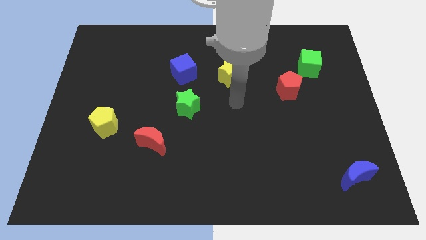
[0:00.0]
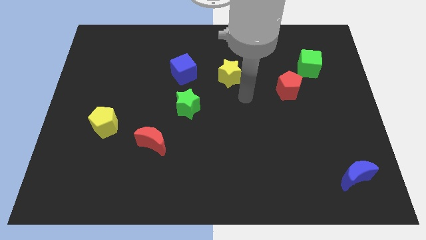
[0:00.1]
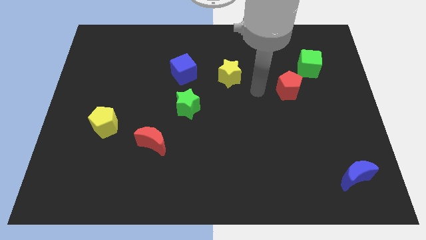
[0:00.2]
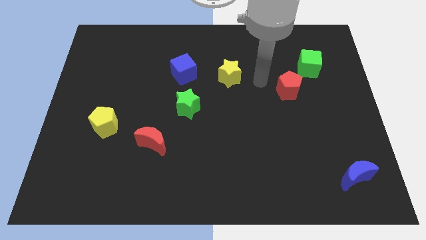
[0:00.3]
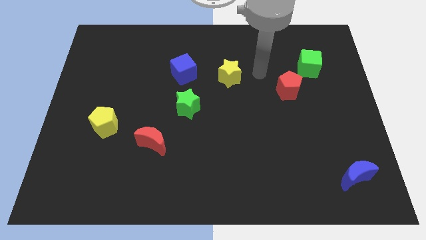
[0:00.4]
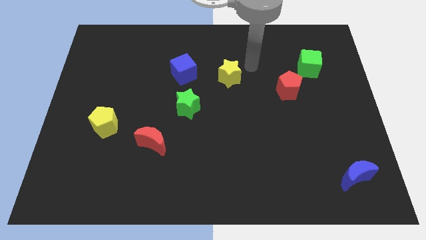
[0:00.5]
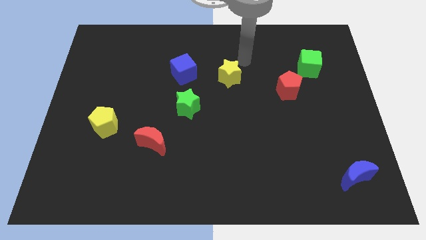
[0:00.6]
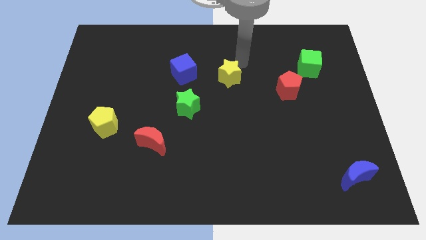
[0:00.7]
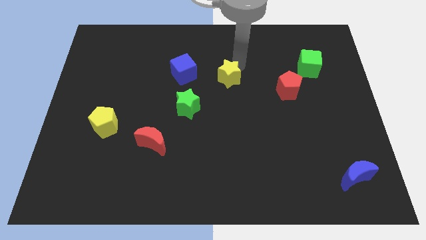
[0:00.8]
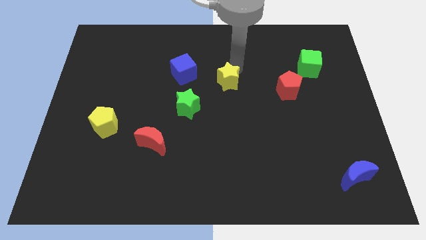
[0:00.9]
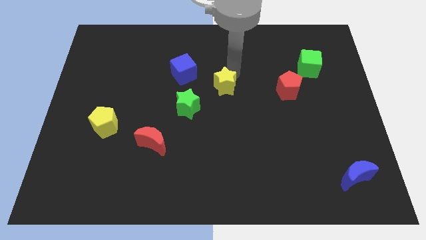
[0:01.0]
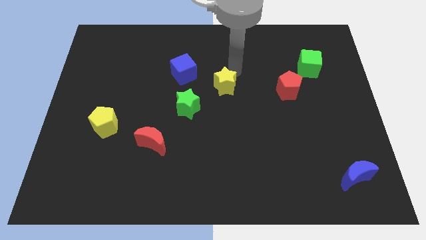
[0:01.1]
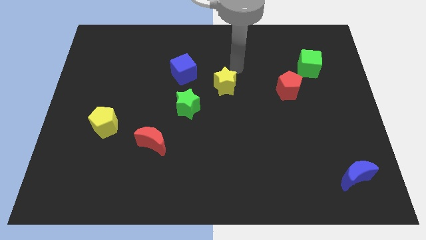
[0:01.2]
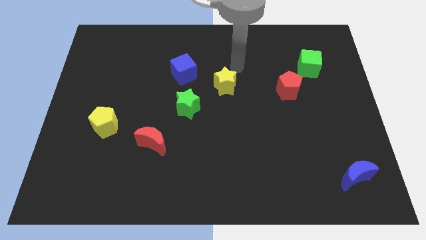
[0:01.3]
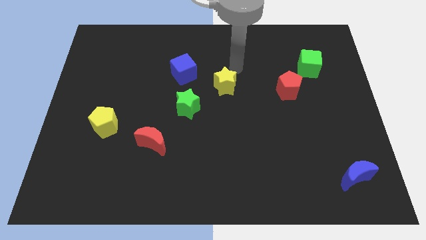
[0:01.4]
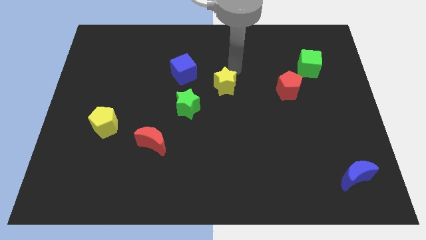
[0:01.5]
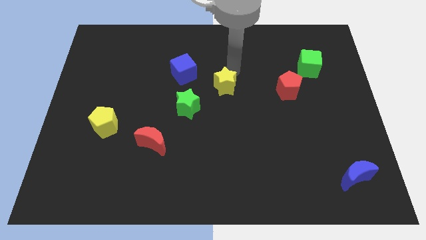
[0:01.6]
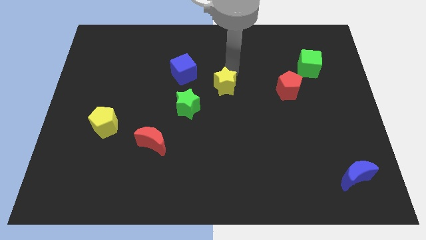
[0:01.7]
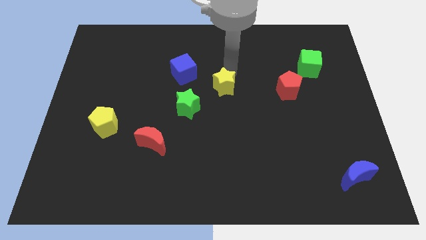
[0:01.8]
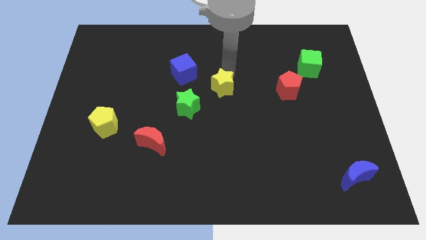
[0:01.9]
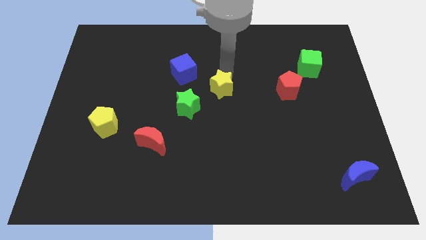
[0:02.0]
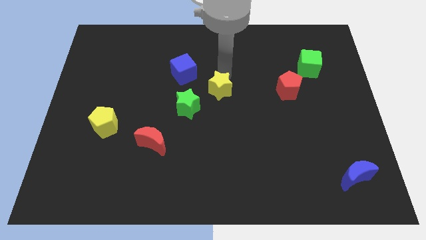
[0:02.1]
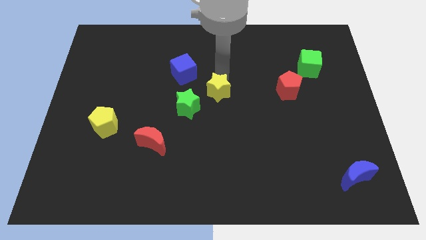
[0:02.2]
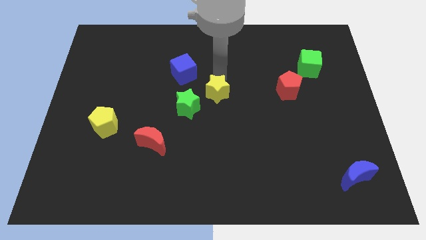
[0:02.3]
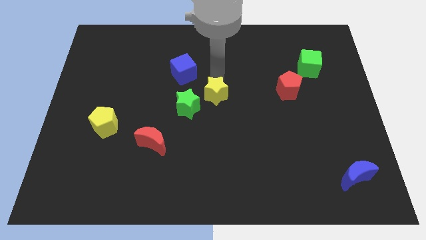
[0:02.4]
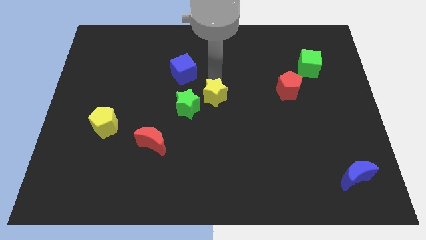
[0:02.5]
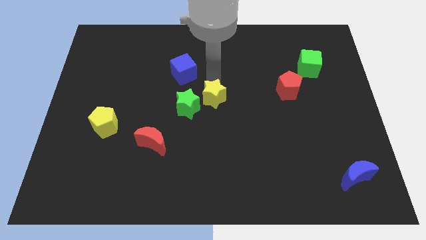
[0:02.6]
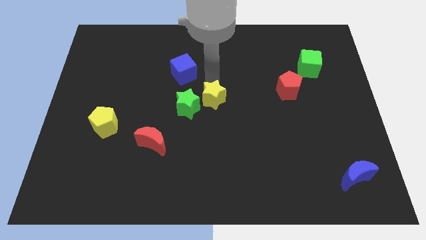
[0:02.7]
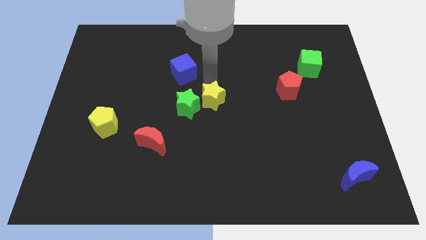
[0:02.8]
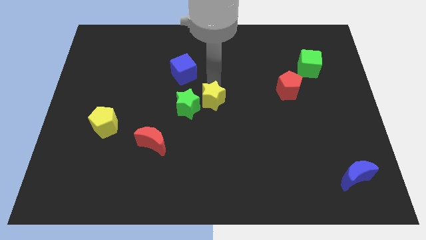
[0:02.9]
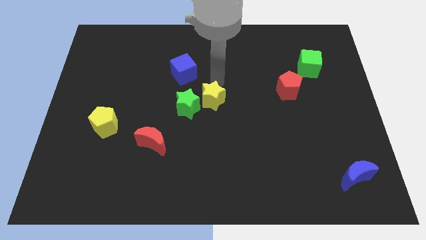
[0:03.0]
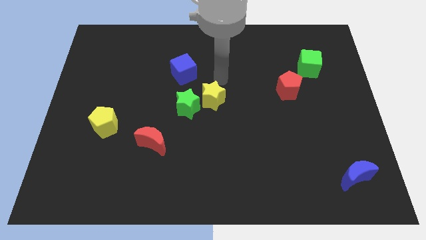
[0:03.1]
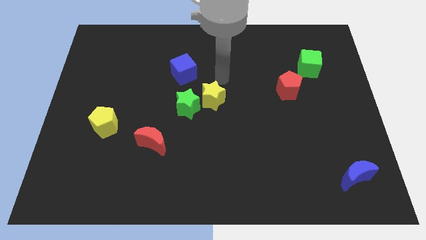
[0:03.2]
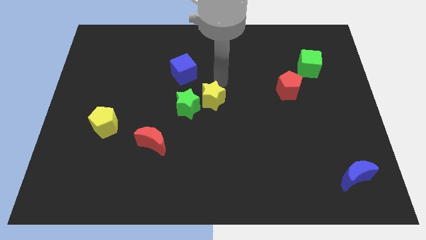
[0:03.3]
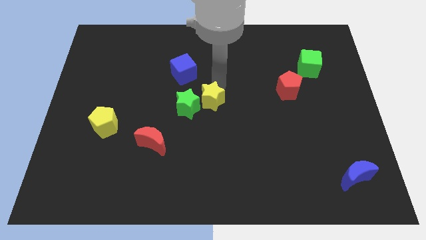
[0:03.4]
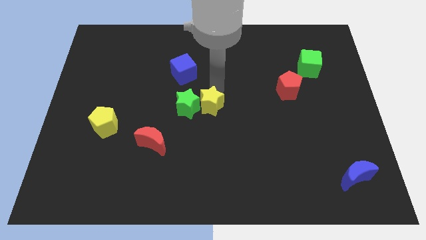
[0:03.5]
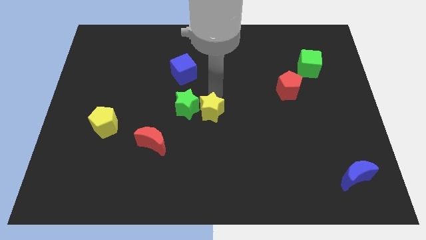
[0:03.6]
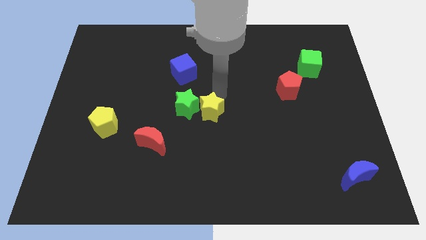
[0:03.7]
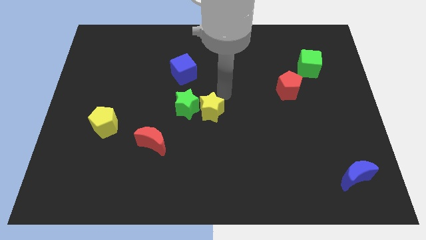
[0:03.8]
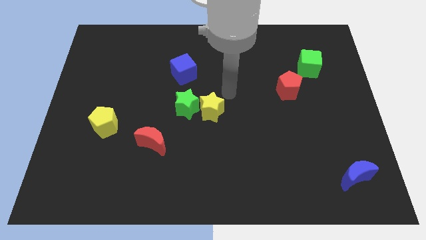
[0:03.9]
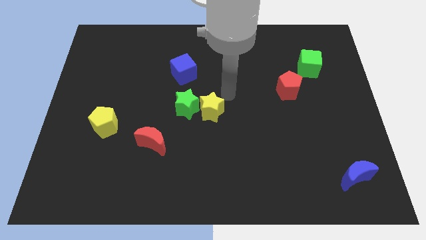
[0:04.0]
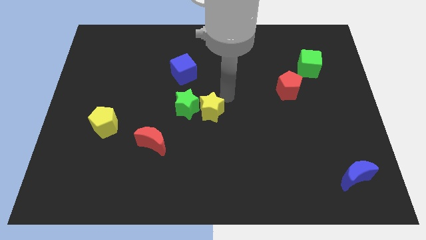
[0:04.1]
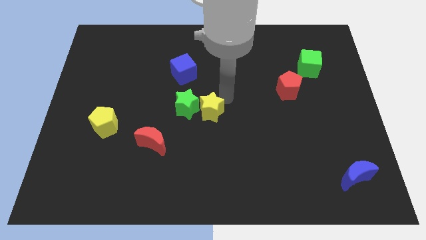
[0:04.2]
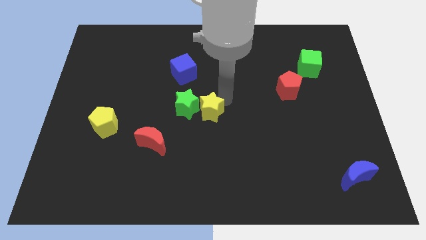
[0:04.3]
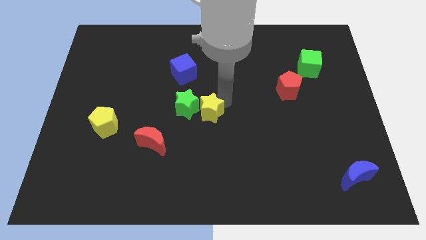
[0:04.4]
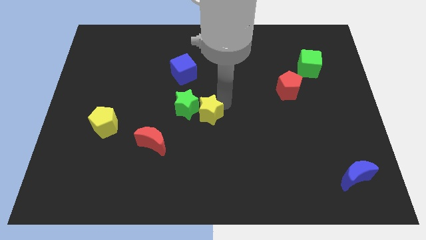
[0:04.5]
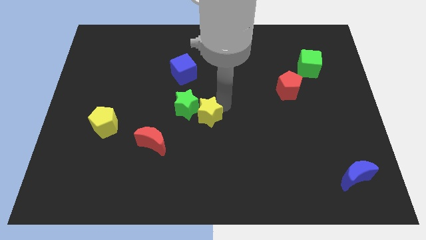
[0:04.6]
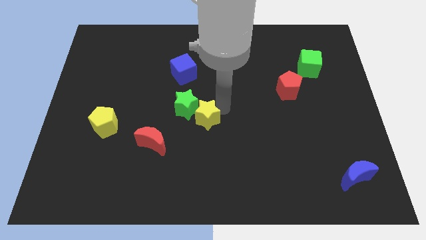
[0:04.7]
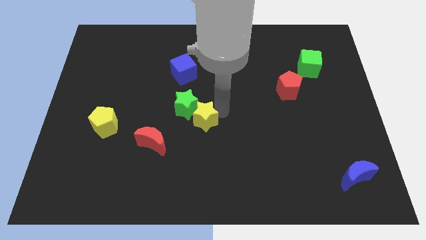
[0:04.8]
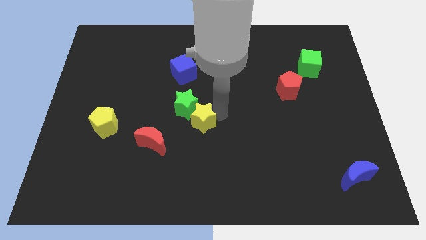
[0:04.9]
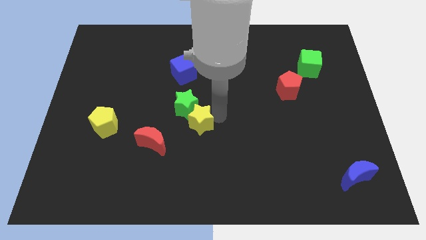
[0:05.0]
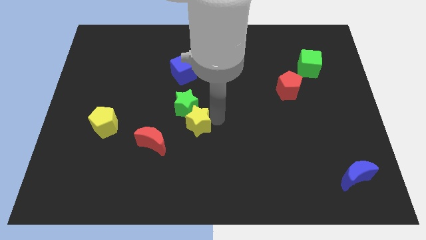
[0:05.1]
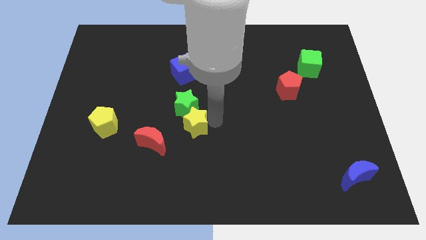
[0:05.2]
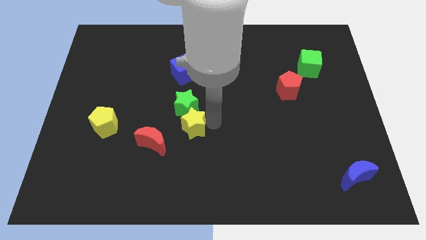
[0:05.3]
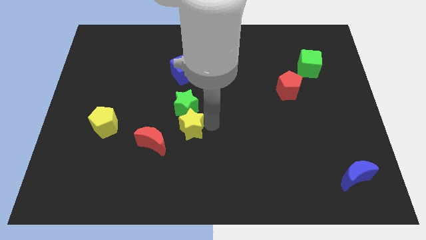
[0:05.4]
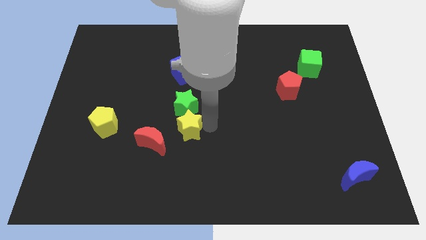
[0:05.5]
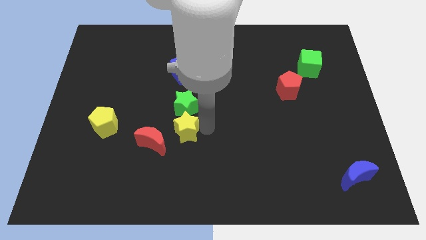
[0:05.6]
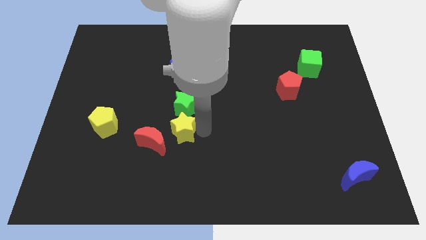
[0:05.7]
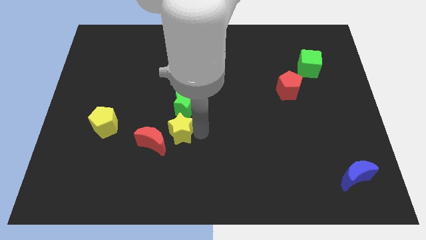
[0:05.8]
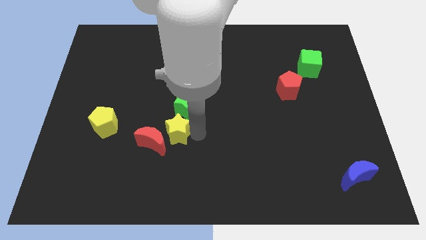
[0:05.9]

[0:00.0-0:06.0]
push the yellow star close to the red moon

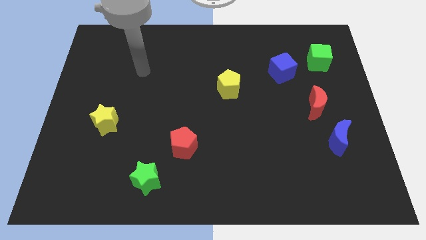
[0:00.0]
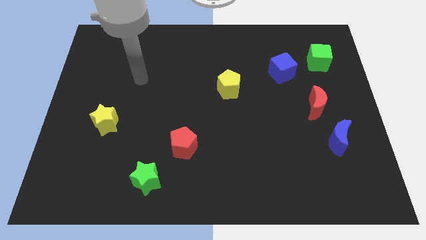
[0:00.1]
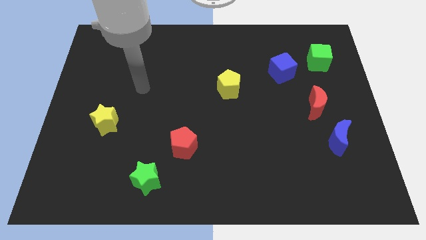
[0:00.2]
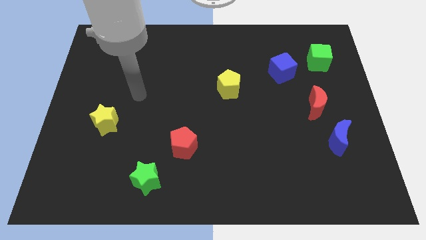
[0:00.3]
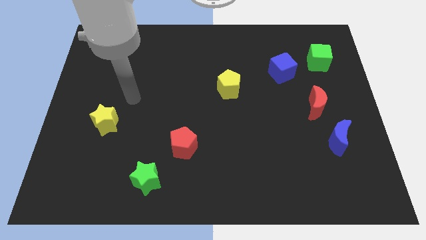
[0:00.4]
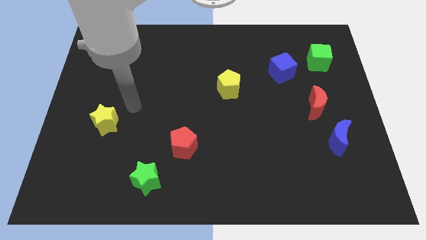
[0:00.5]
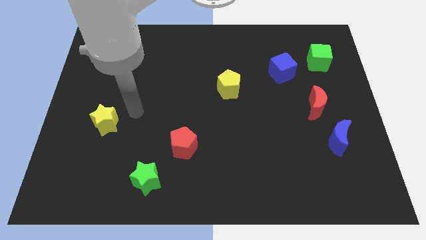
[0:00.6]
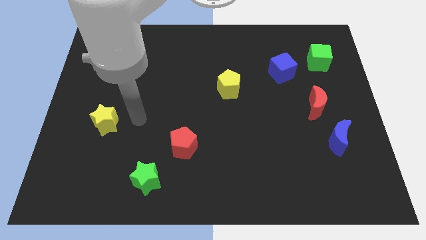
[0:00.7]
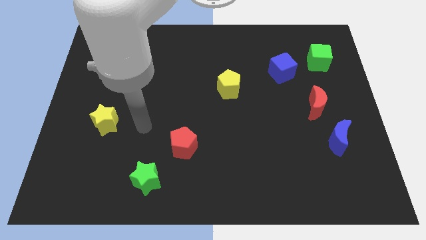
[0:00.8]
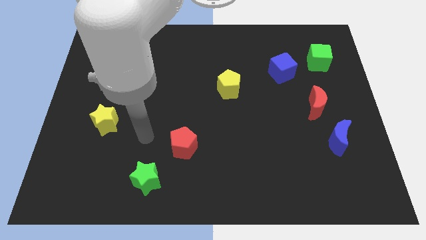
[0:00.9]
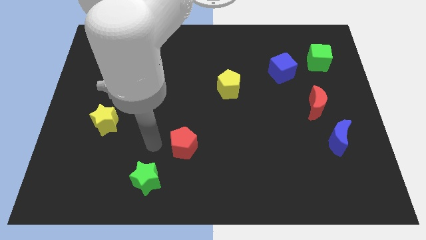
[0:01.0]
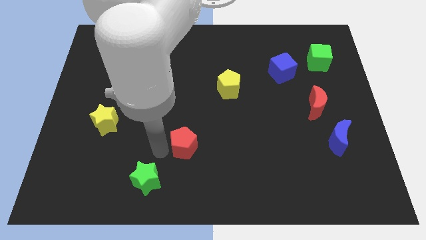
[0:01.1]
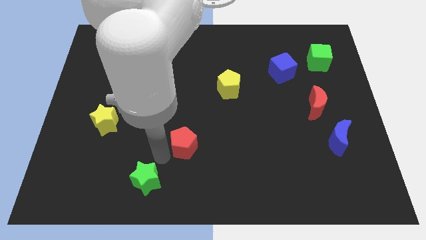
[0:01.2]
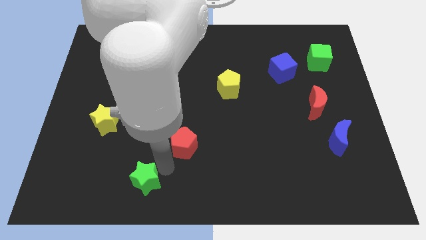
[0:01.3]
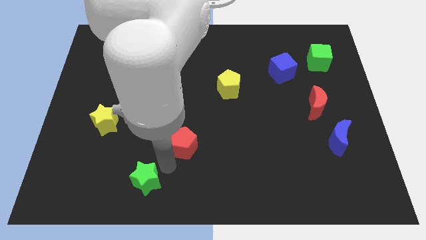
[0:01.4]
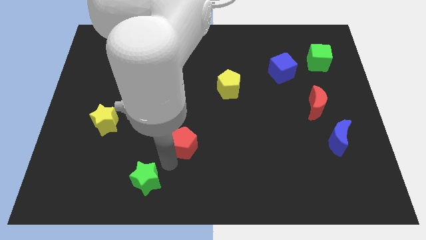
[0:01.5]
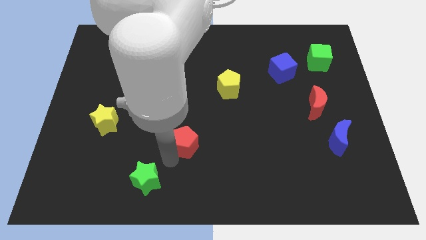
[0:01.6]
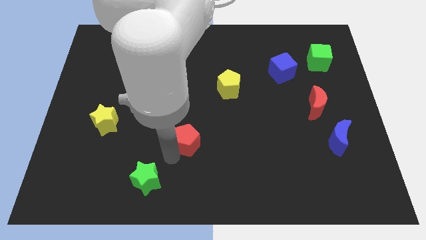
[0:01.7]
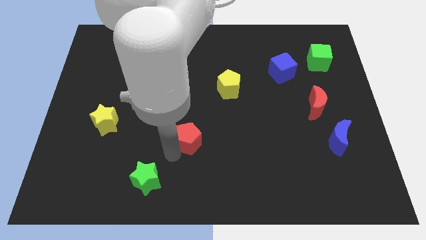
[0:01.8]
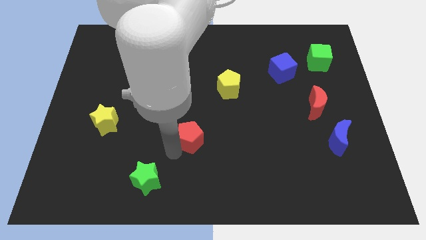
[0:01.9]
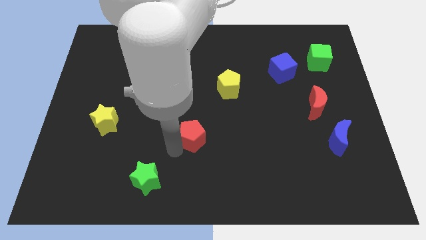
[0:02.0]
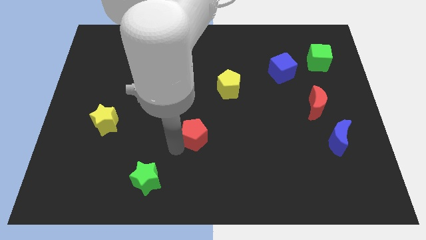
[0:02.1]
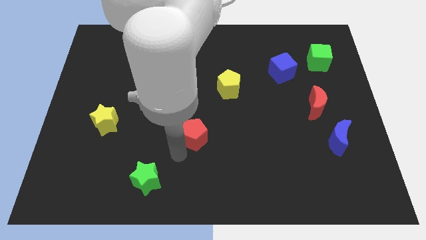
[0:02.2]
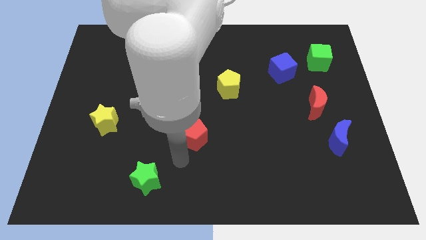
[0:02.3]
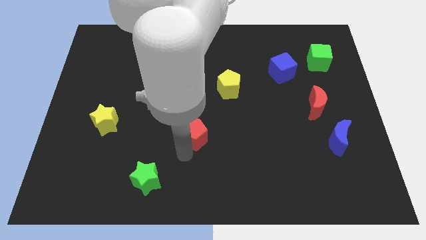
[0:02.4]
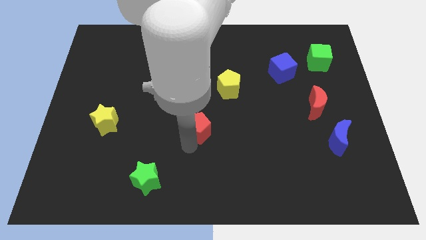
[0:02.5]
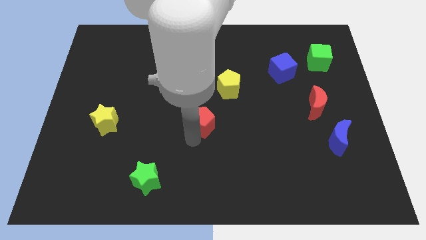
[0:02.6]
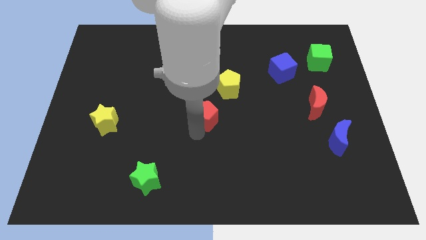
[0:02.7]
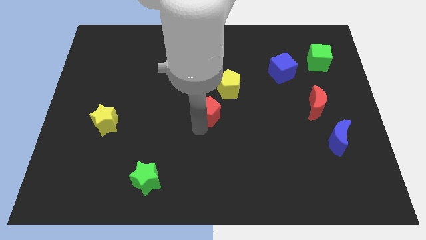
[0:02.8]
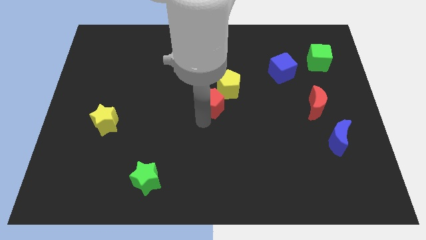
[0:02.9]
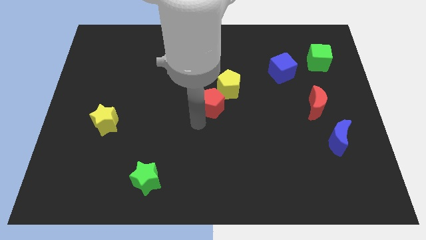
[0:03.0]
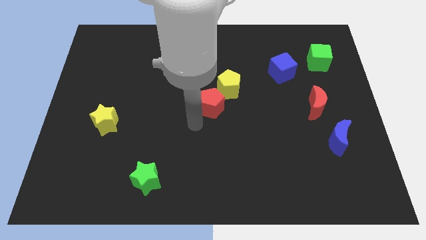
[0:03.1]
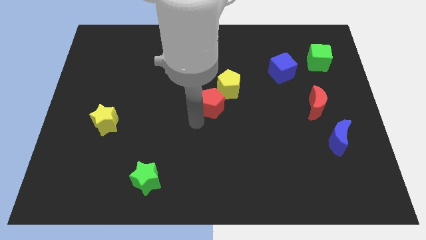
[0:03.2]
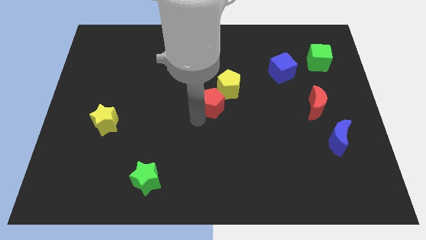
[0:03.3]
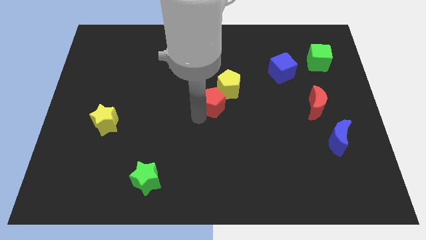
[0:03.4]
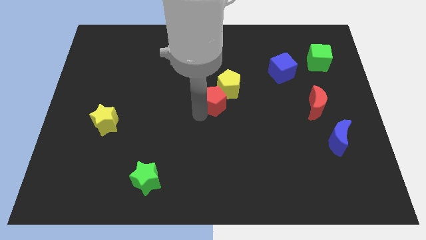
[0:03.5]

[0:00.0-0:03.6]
push the red pentagon close to the yellow pentagon
